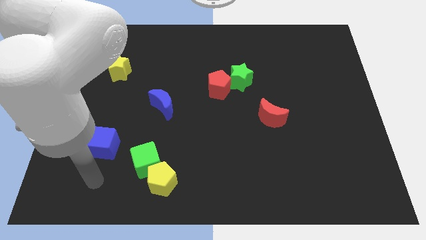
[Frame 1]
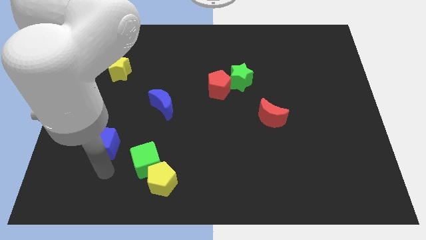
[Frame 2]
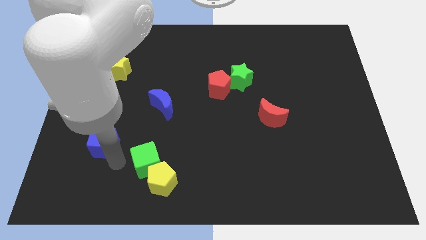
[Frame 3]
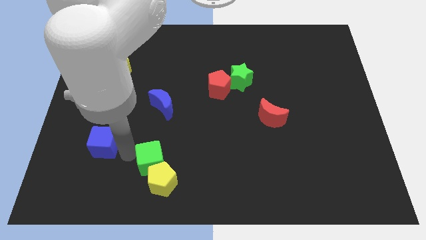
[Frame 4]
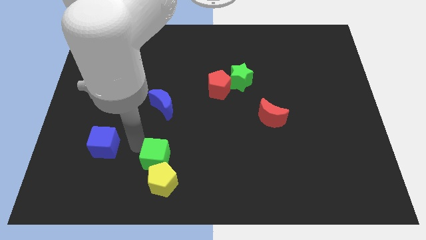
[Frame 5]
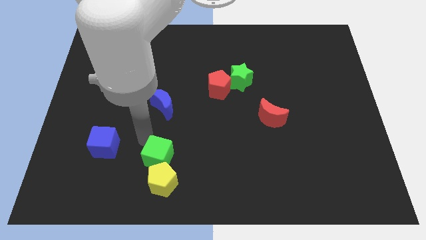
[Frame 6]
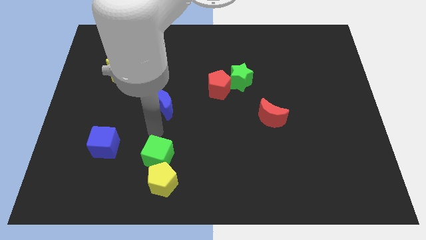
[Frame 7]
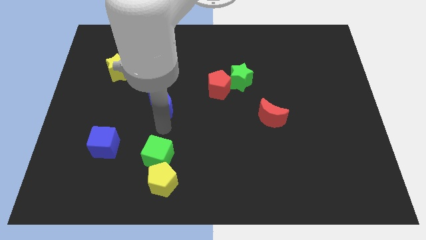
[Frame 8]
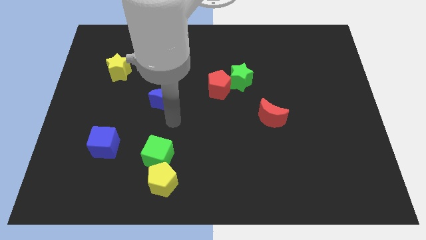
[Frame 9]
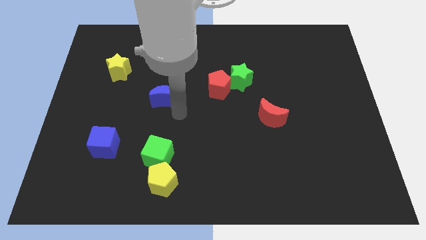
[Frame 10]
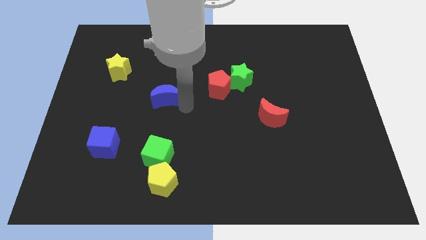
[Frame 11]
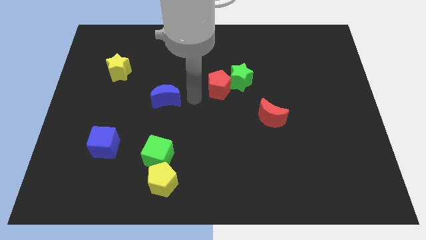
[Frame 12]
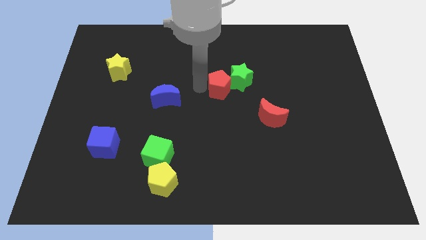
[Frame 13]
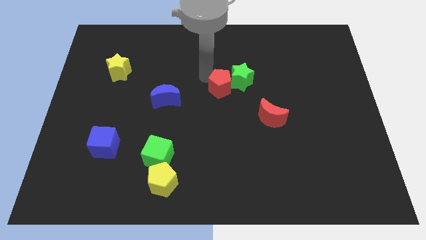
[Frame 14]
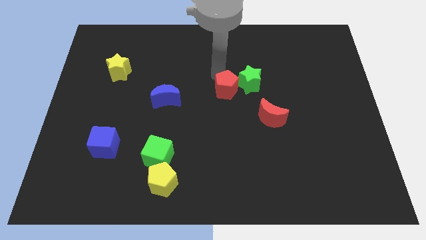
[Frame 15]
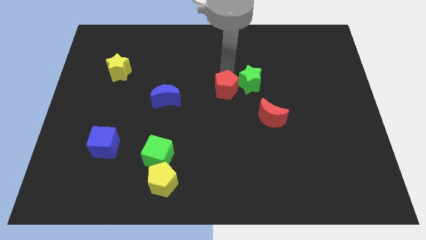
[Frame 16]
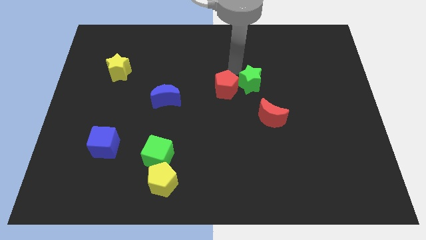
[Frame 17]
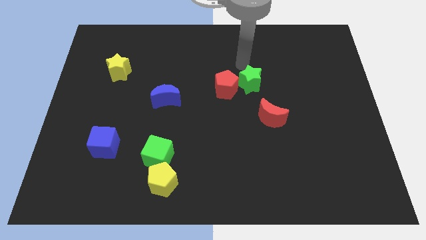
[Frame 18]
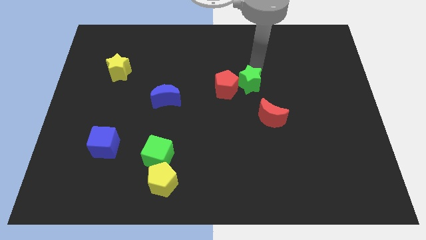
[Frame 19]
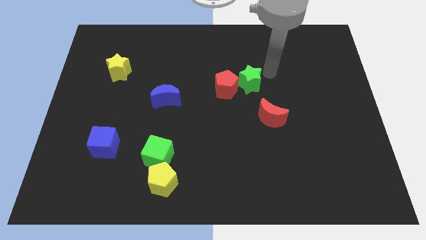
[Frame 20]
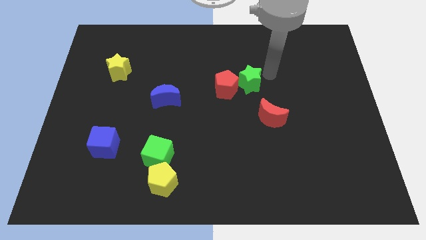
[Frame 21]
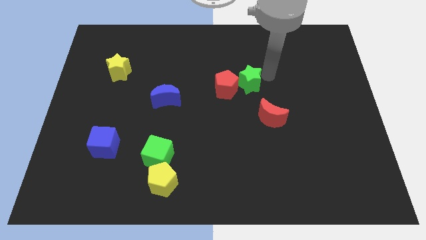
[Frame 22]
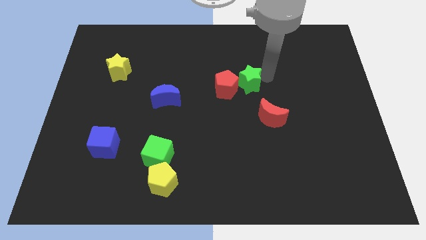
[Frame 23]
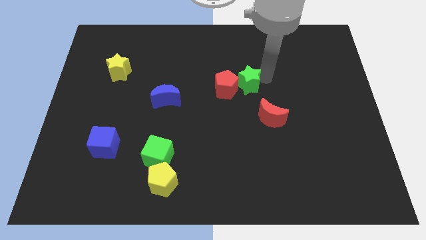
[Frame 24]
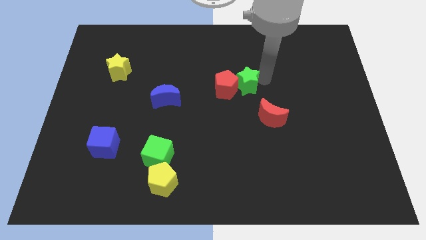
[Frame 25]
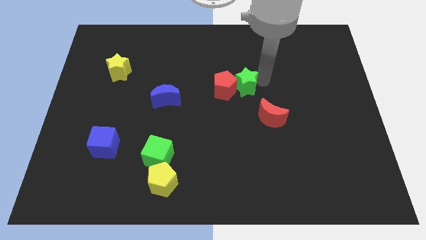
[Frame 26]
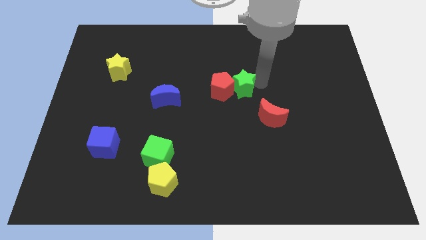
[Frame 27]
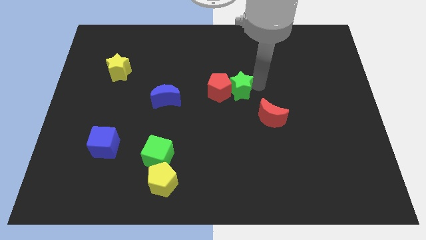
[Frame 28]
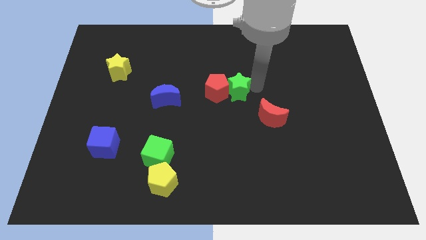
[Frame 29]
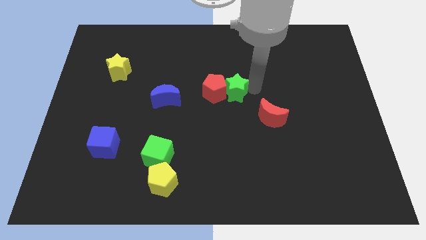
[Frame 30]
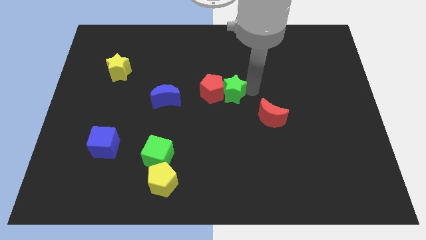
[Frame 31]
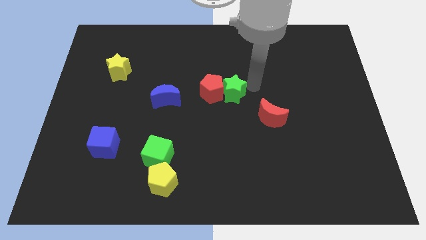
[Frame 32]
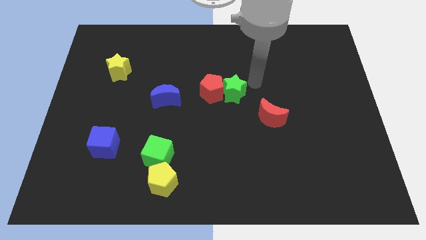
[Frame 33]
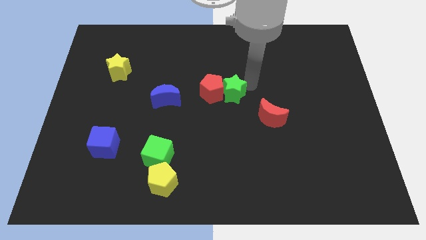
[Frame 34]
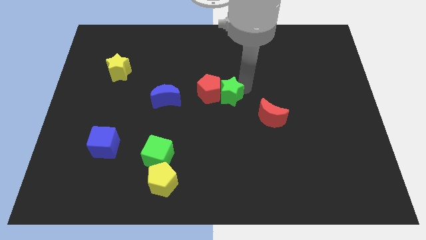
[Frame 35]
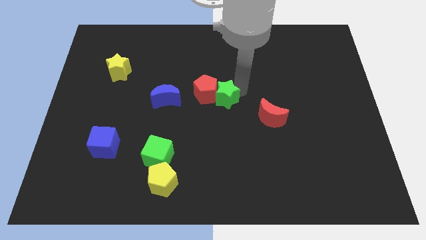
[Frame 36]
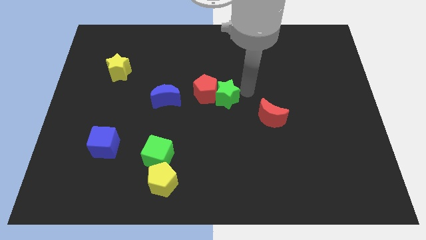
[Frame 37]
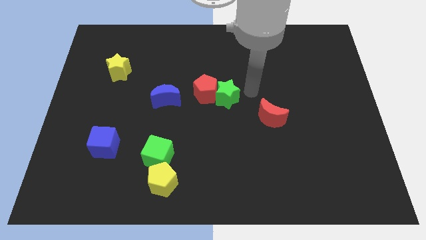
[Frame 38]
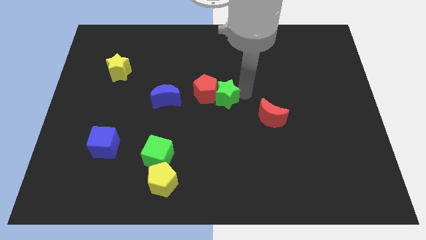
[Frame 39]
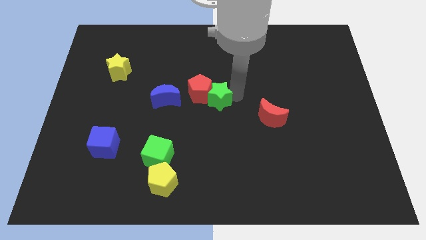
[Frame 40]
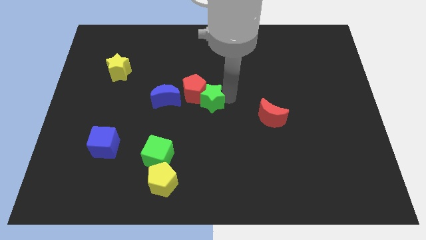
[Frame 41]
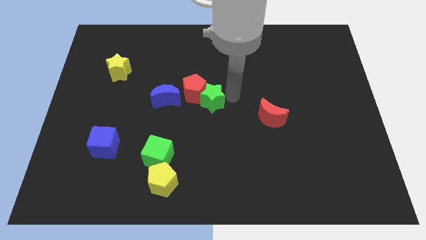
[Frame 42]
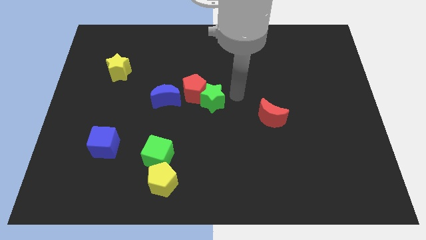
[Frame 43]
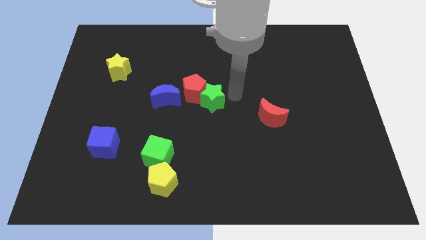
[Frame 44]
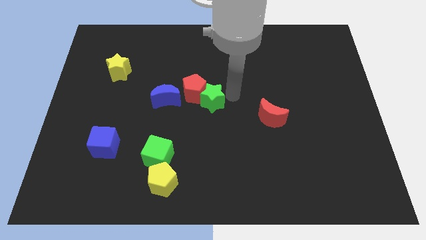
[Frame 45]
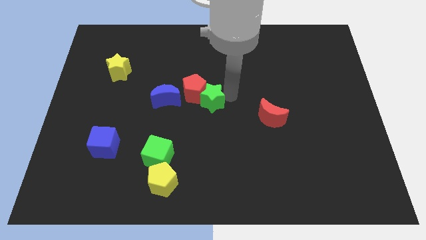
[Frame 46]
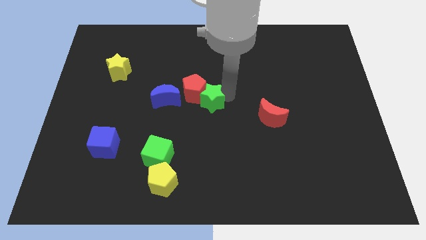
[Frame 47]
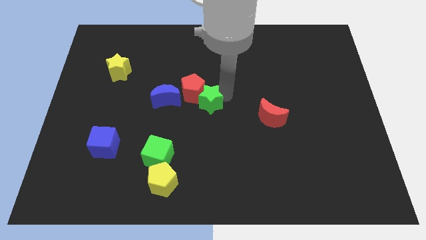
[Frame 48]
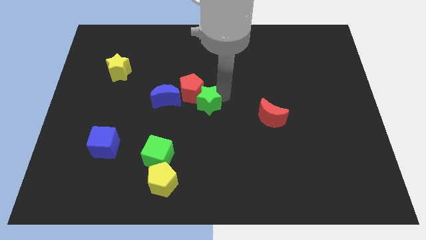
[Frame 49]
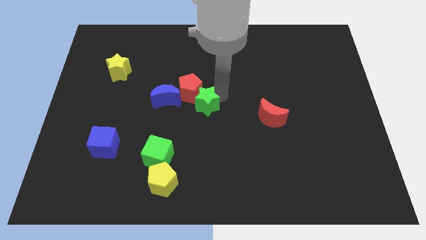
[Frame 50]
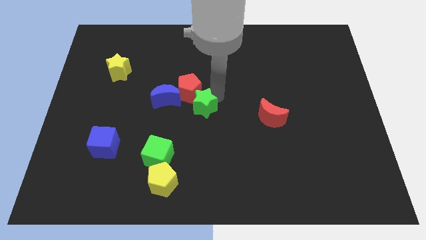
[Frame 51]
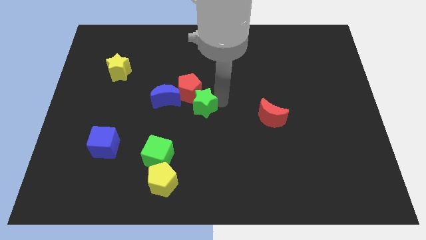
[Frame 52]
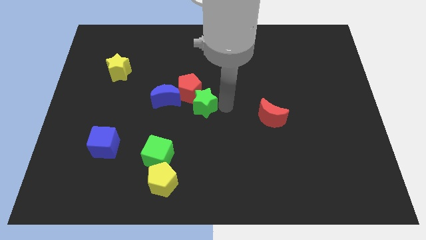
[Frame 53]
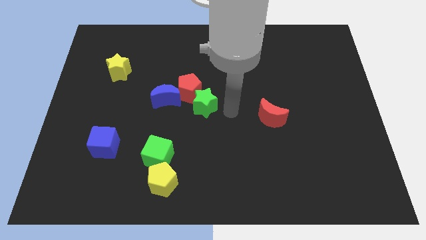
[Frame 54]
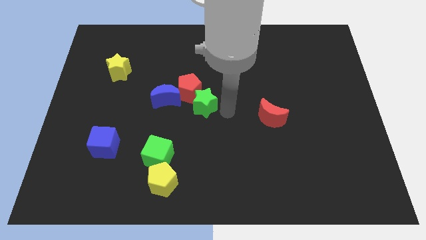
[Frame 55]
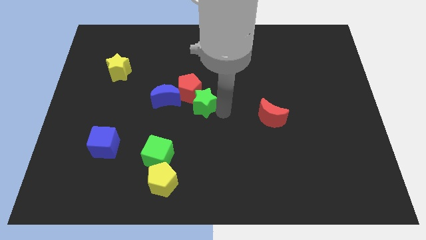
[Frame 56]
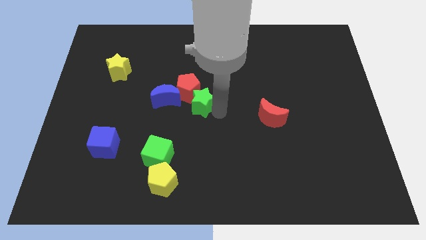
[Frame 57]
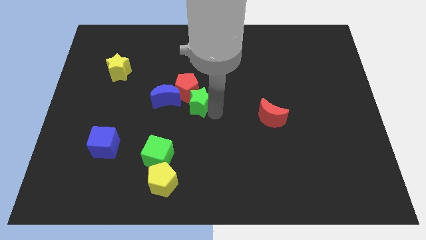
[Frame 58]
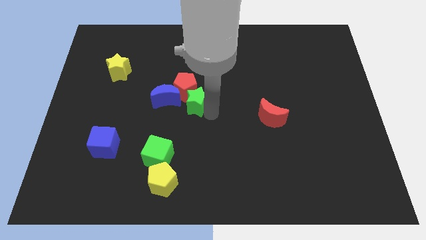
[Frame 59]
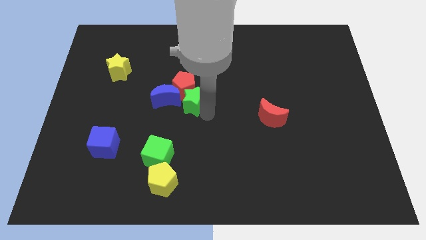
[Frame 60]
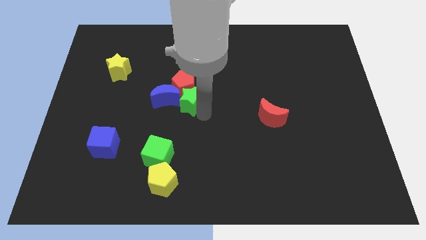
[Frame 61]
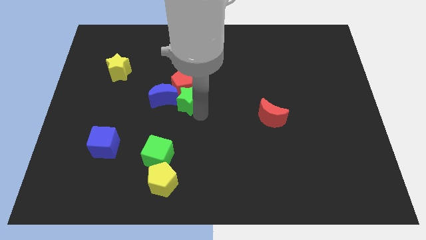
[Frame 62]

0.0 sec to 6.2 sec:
push the green star towards the blue moon
